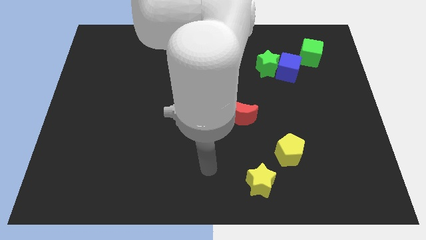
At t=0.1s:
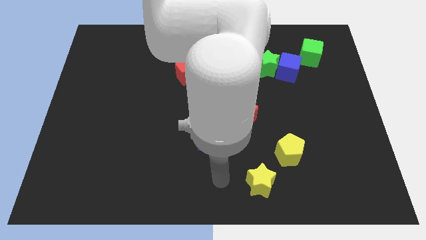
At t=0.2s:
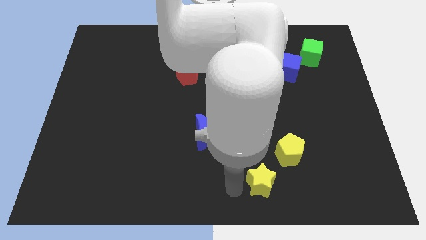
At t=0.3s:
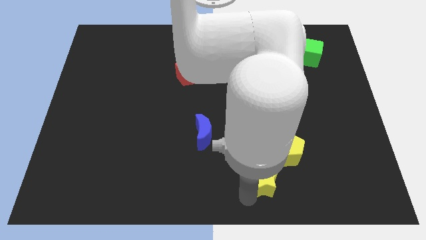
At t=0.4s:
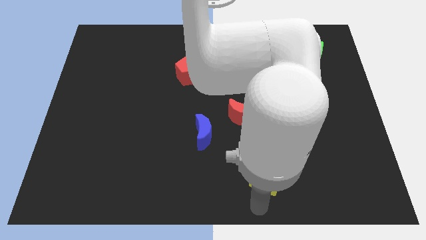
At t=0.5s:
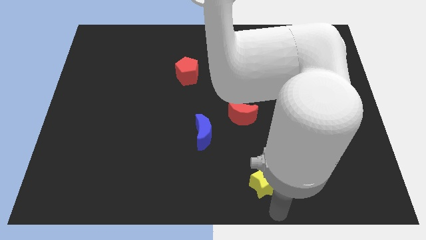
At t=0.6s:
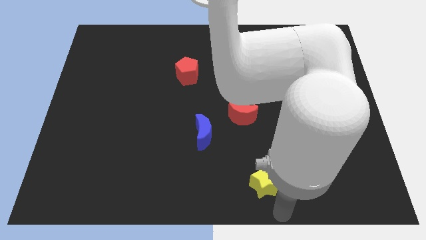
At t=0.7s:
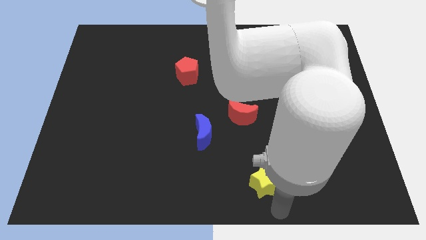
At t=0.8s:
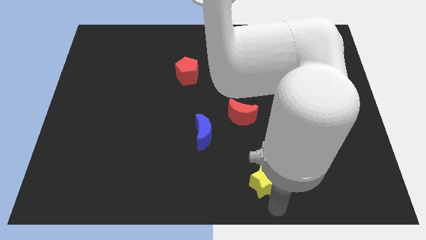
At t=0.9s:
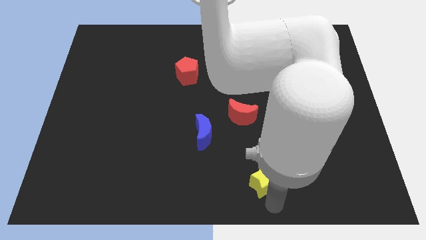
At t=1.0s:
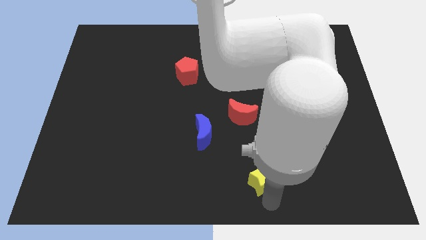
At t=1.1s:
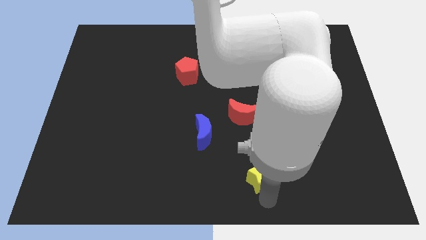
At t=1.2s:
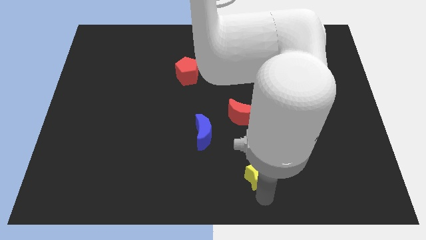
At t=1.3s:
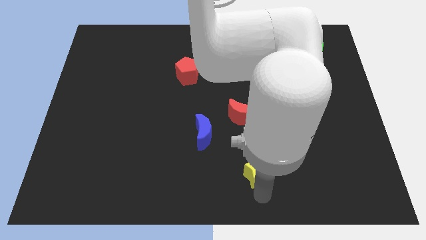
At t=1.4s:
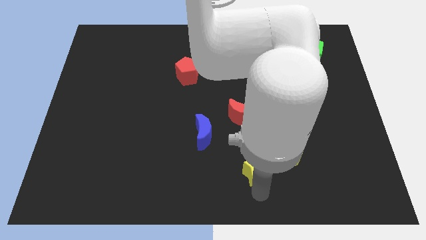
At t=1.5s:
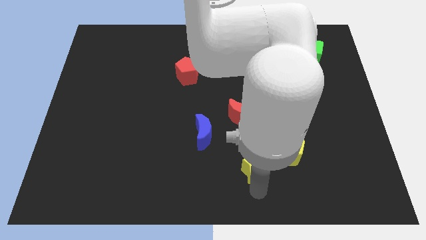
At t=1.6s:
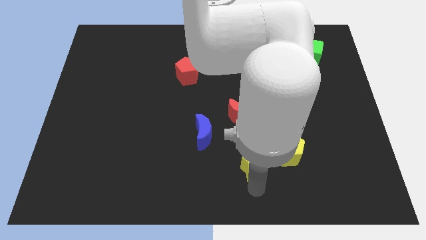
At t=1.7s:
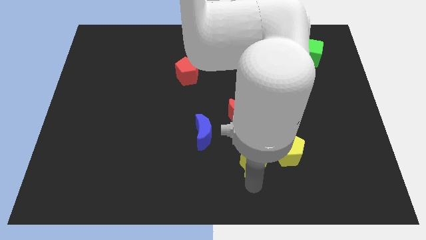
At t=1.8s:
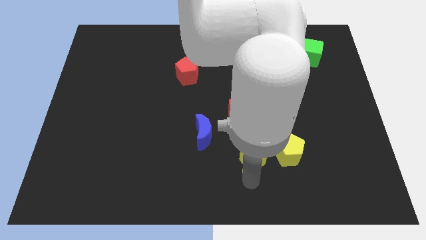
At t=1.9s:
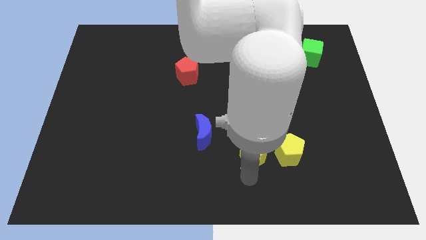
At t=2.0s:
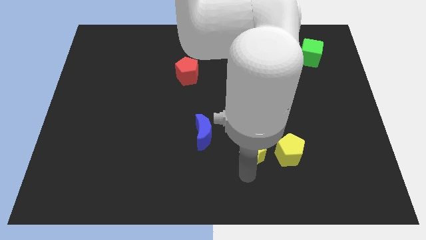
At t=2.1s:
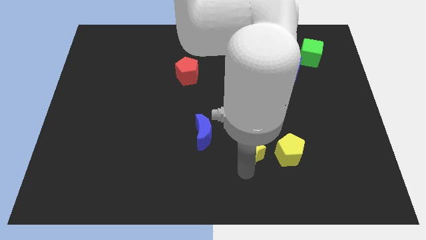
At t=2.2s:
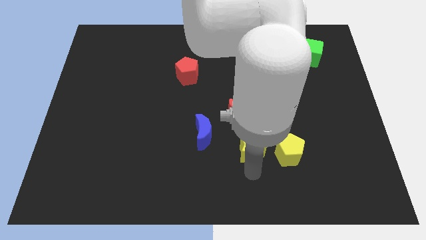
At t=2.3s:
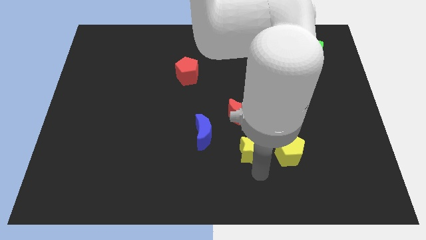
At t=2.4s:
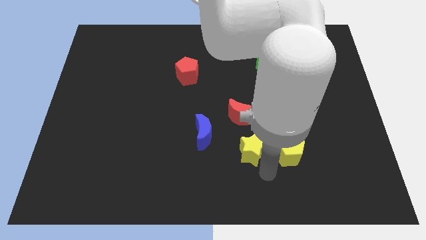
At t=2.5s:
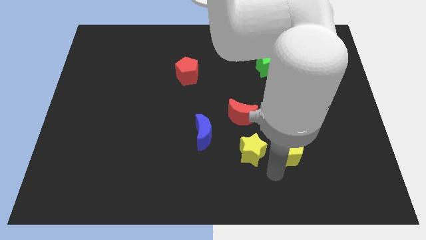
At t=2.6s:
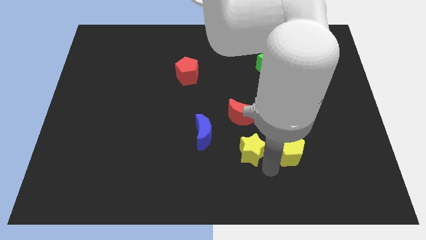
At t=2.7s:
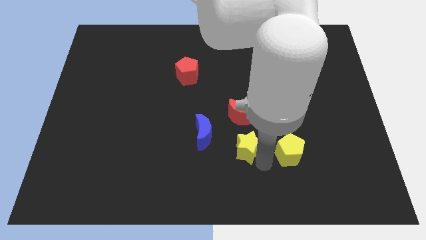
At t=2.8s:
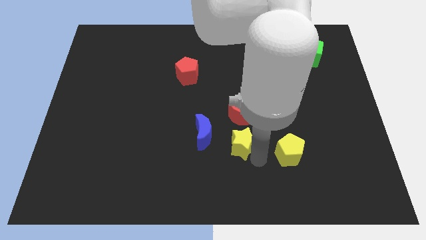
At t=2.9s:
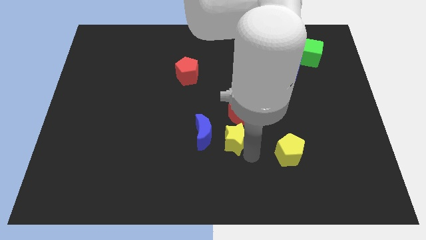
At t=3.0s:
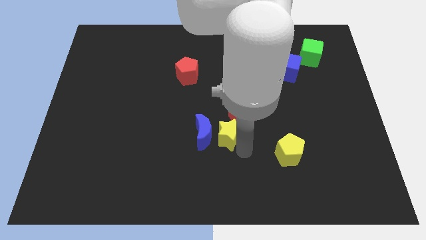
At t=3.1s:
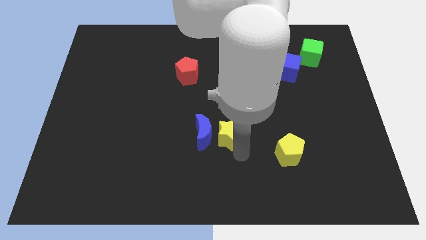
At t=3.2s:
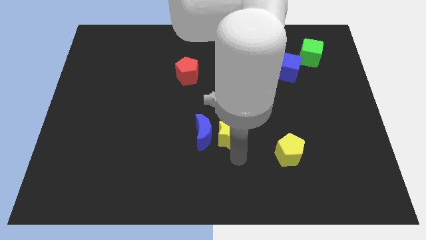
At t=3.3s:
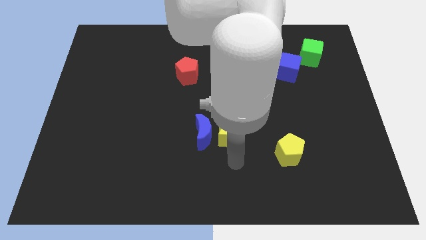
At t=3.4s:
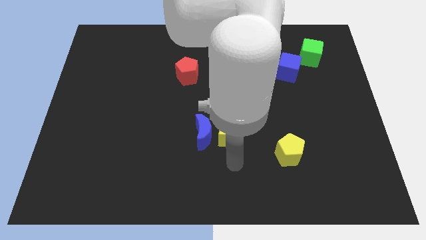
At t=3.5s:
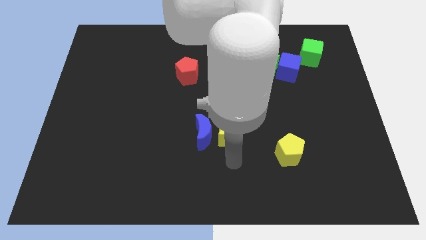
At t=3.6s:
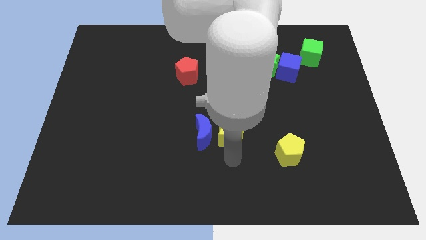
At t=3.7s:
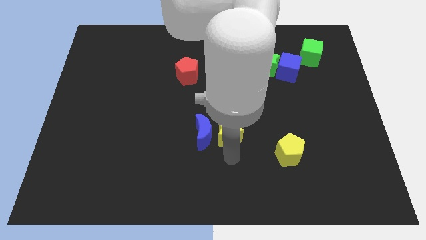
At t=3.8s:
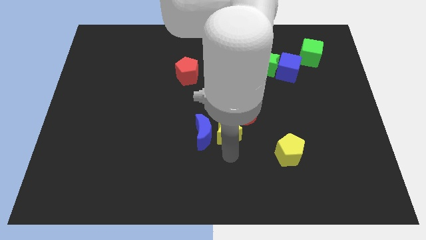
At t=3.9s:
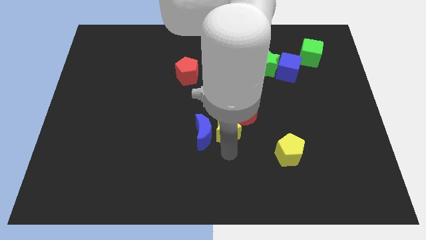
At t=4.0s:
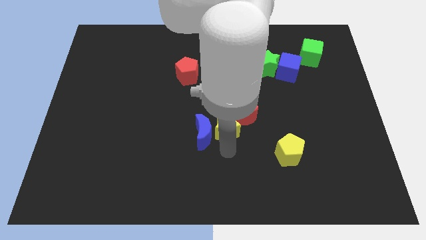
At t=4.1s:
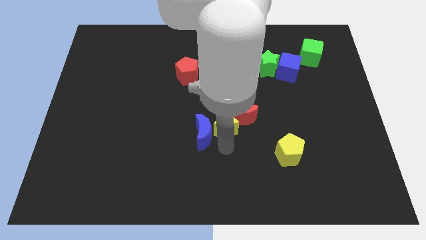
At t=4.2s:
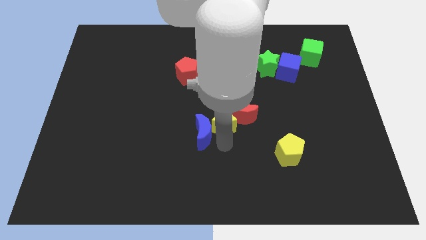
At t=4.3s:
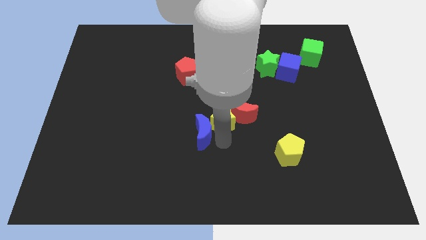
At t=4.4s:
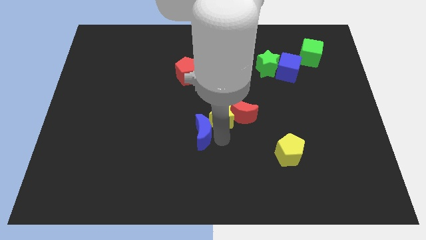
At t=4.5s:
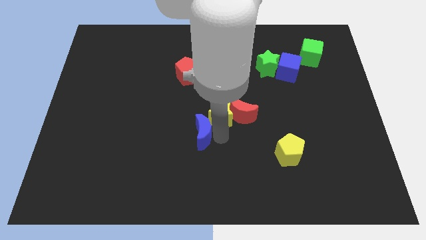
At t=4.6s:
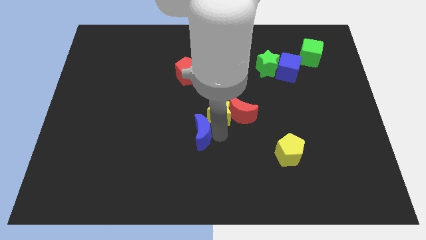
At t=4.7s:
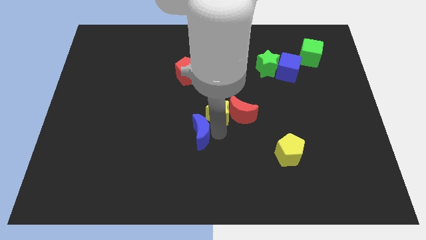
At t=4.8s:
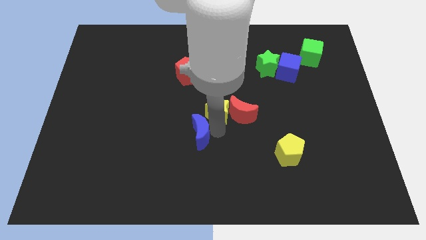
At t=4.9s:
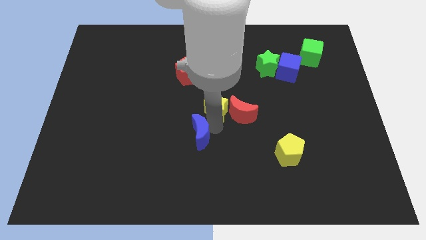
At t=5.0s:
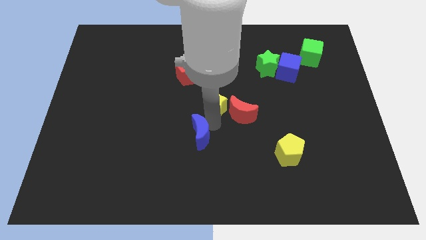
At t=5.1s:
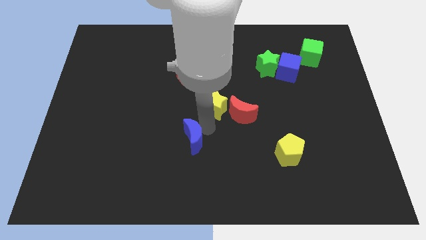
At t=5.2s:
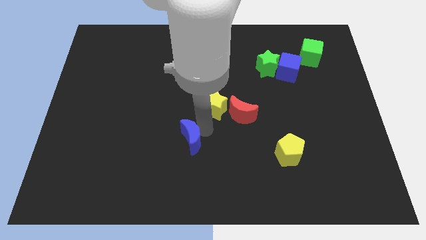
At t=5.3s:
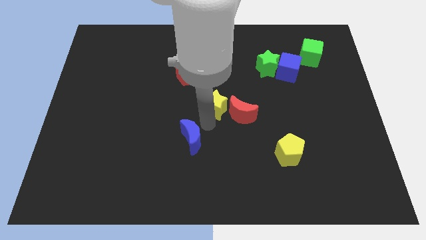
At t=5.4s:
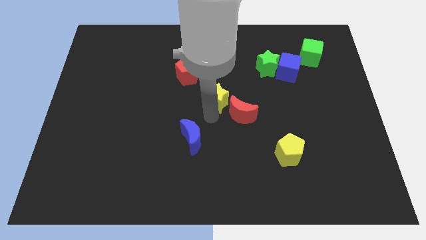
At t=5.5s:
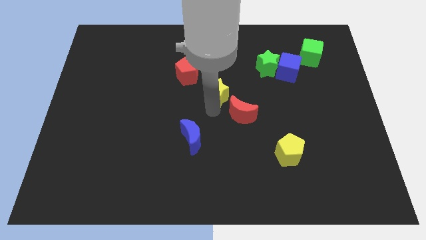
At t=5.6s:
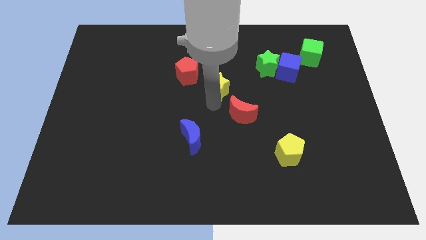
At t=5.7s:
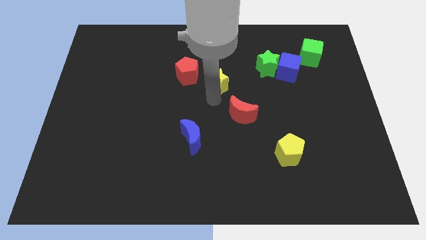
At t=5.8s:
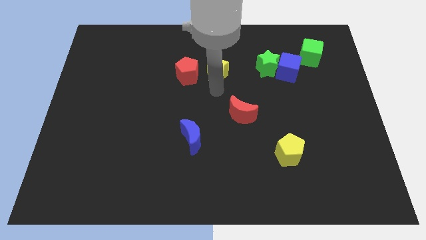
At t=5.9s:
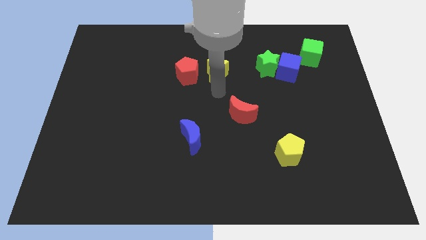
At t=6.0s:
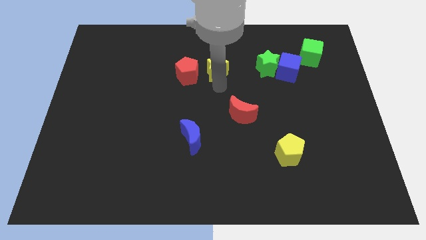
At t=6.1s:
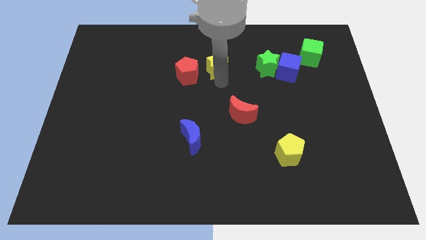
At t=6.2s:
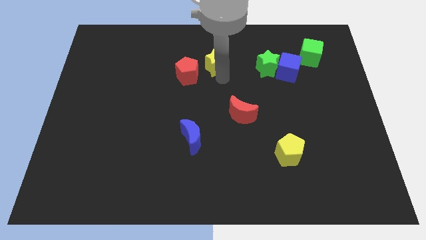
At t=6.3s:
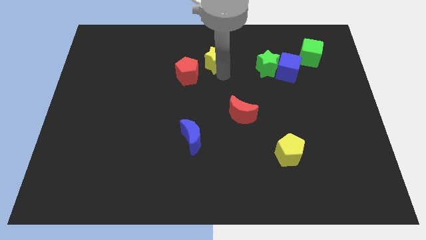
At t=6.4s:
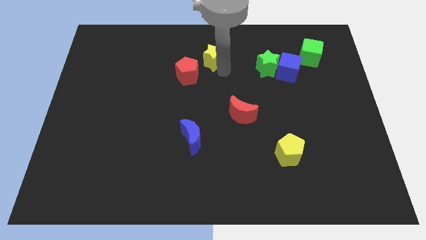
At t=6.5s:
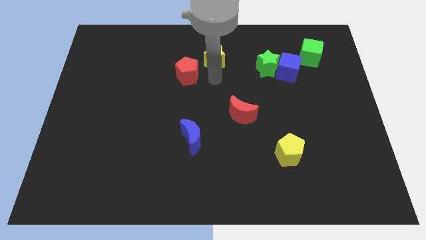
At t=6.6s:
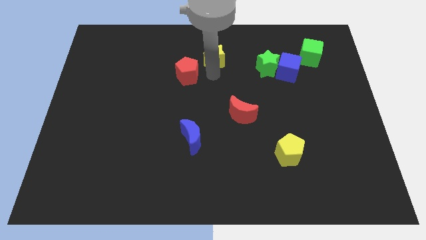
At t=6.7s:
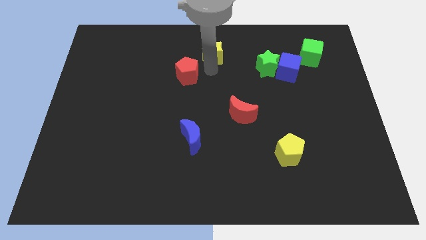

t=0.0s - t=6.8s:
push the yellow star to the towards your base
